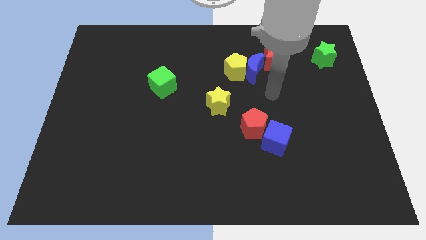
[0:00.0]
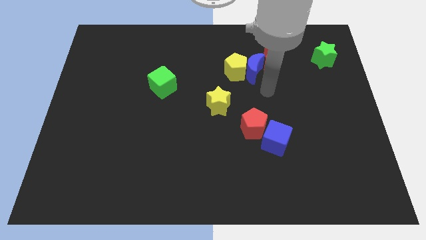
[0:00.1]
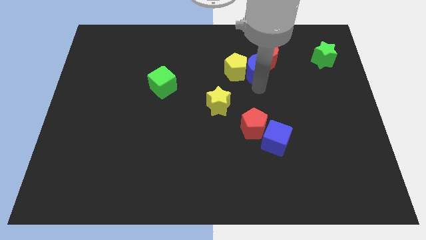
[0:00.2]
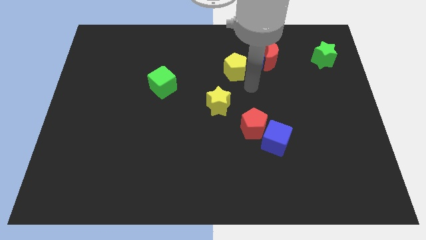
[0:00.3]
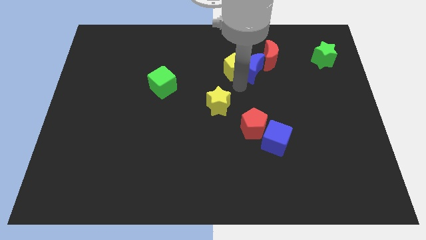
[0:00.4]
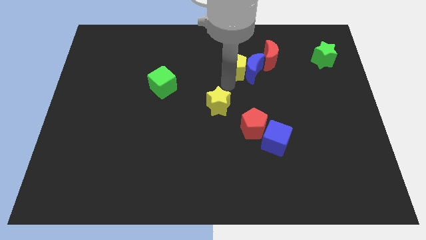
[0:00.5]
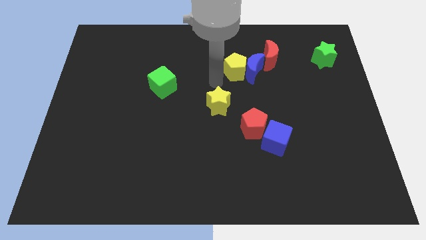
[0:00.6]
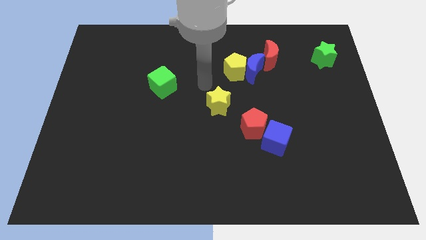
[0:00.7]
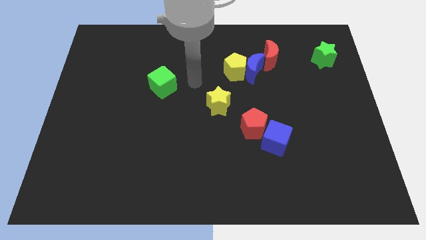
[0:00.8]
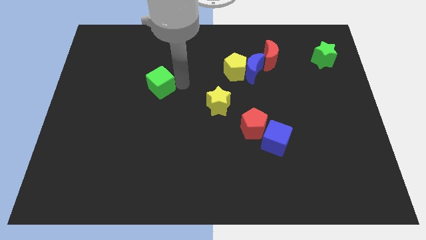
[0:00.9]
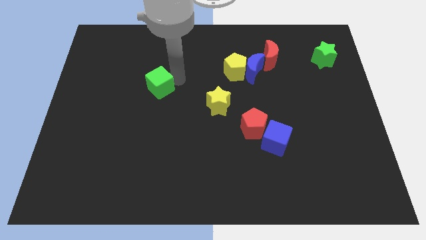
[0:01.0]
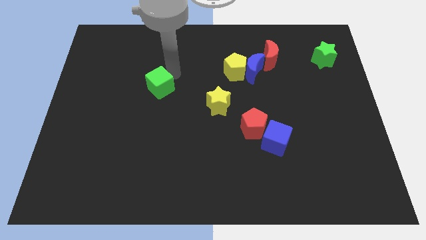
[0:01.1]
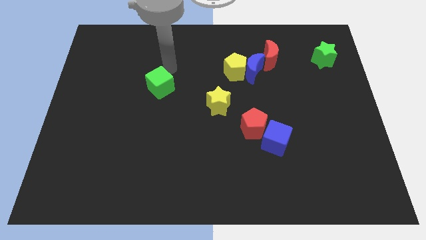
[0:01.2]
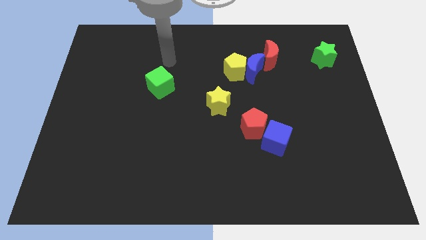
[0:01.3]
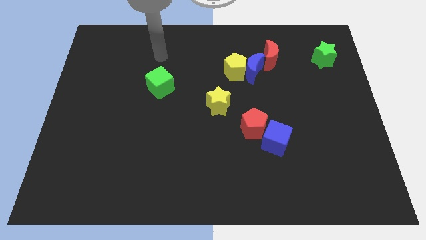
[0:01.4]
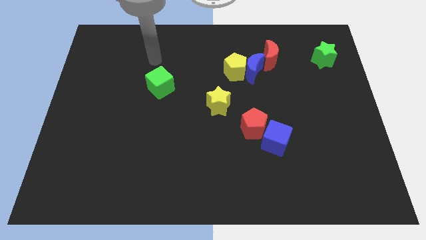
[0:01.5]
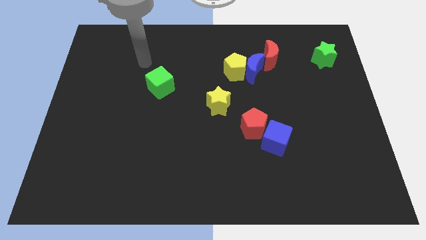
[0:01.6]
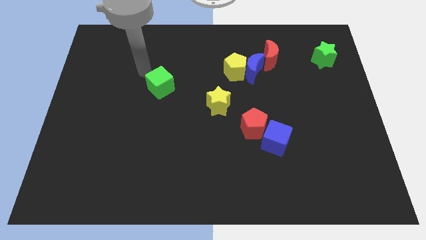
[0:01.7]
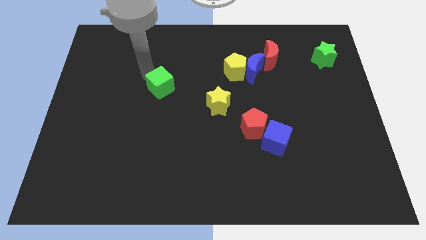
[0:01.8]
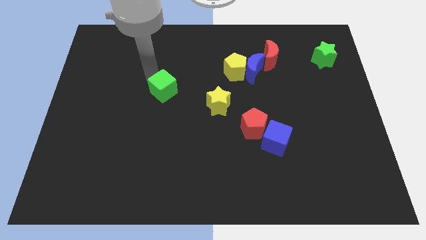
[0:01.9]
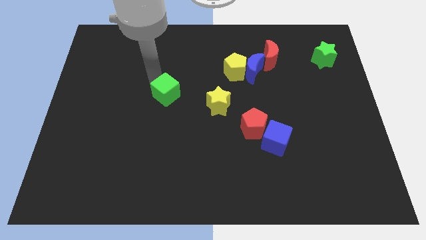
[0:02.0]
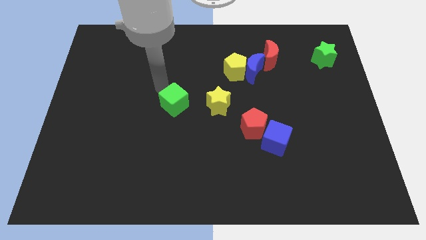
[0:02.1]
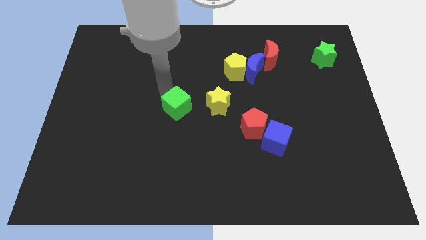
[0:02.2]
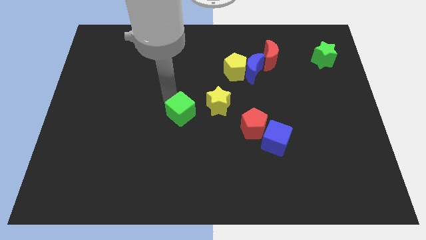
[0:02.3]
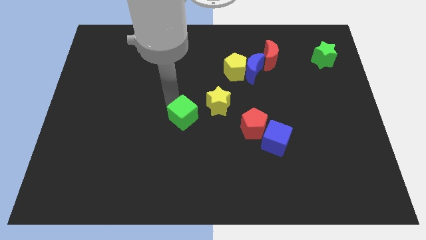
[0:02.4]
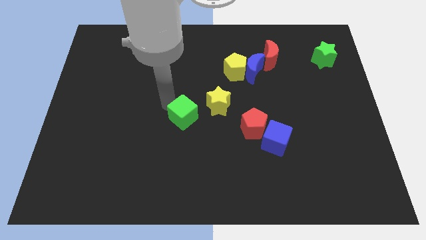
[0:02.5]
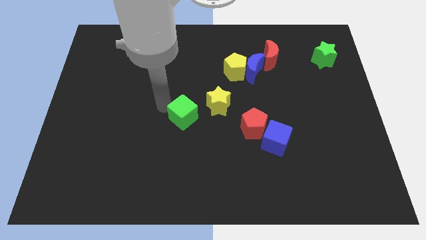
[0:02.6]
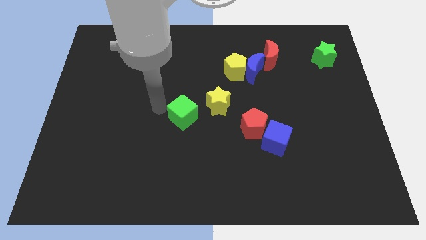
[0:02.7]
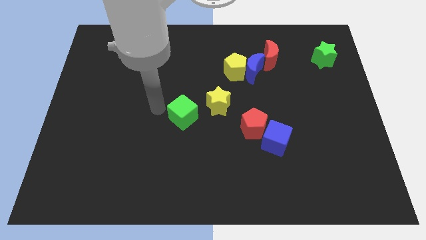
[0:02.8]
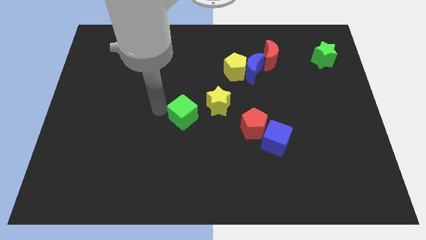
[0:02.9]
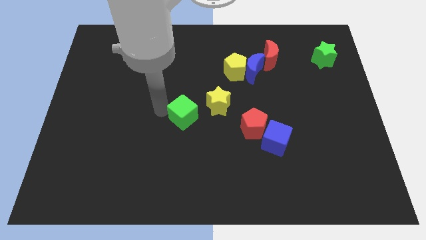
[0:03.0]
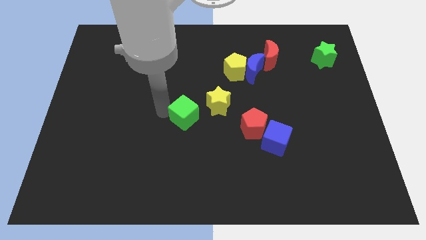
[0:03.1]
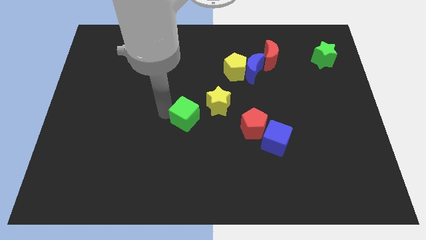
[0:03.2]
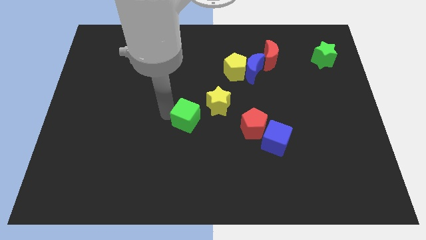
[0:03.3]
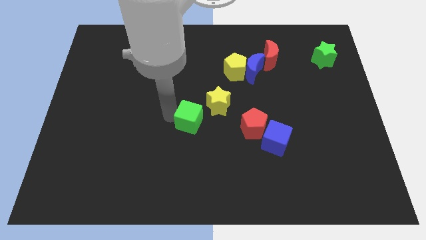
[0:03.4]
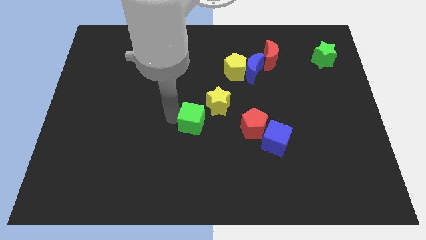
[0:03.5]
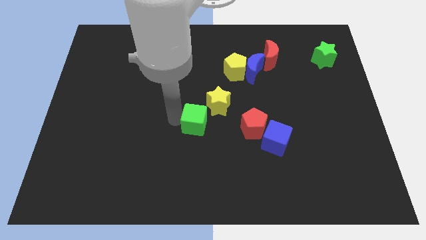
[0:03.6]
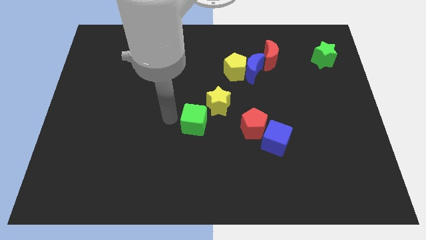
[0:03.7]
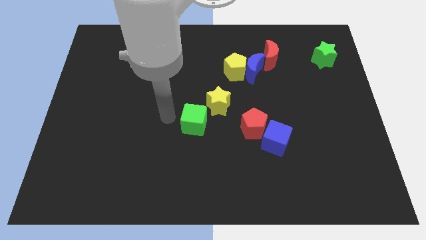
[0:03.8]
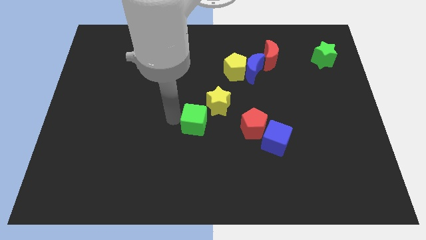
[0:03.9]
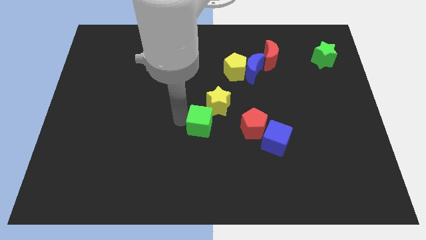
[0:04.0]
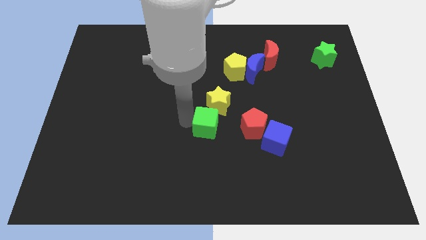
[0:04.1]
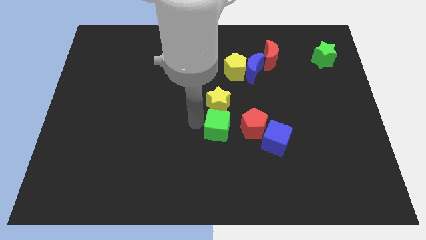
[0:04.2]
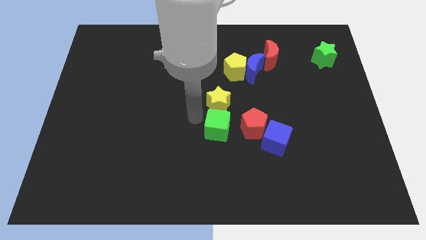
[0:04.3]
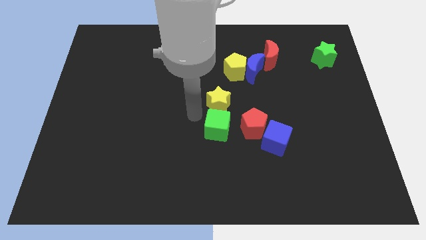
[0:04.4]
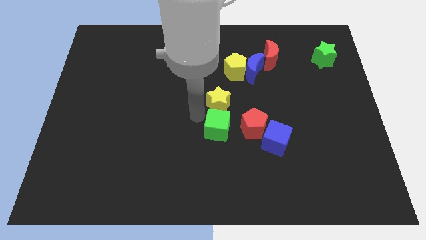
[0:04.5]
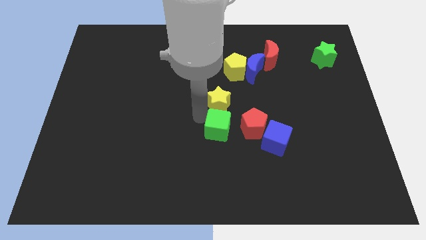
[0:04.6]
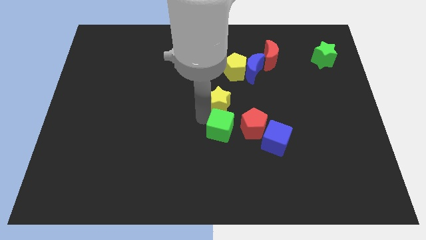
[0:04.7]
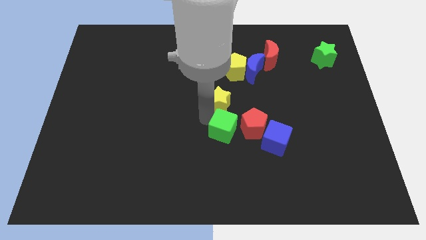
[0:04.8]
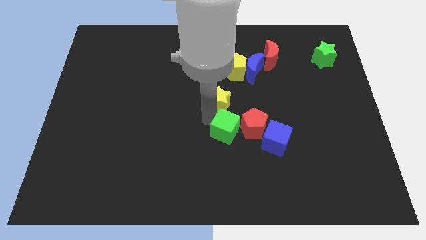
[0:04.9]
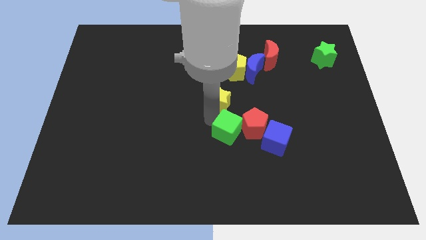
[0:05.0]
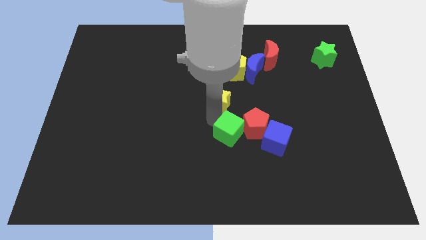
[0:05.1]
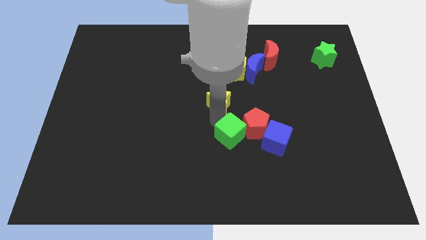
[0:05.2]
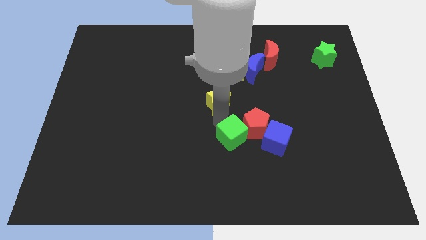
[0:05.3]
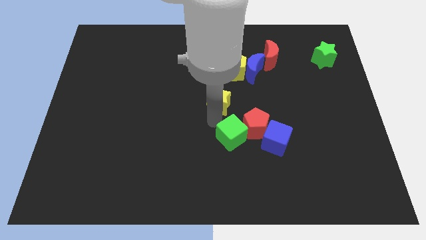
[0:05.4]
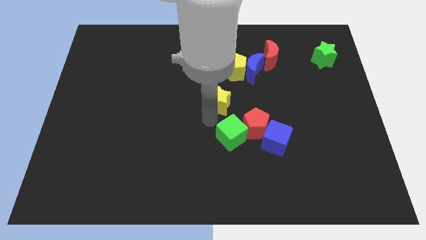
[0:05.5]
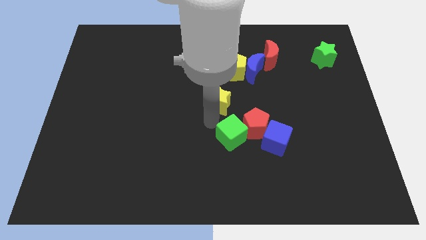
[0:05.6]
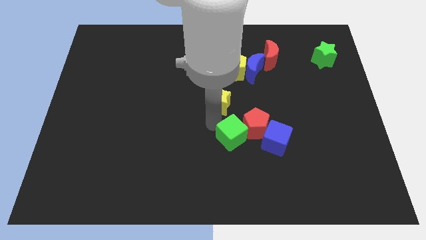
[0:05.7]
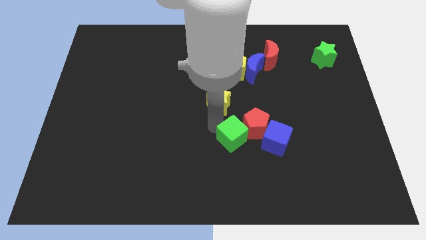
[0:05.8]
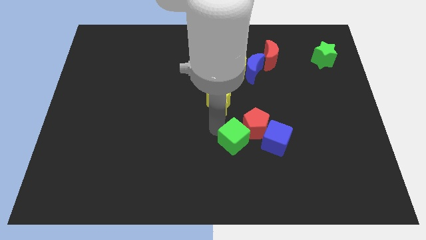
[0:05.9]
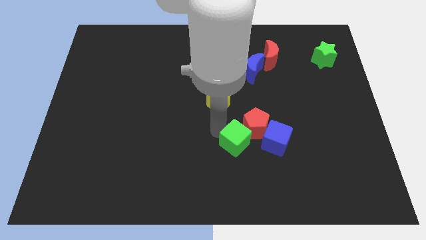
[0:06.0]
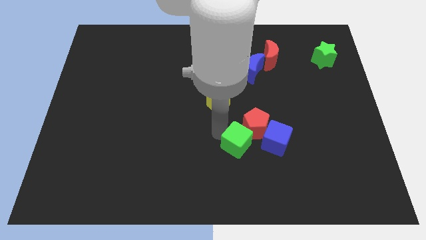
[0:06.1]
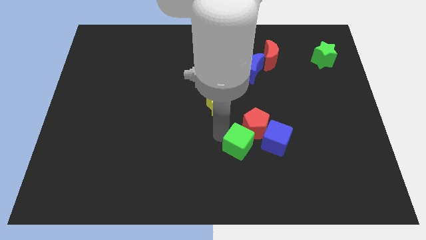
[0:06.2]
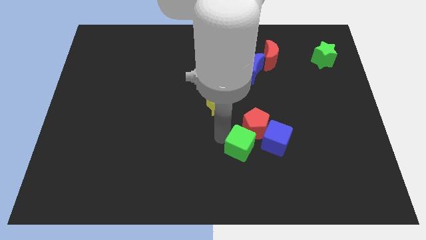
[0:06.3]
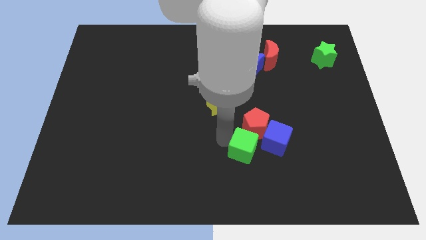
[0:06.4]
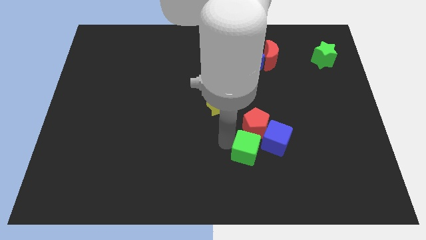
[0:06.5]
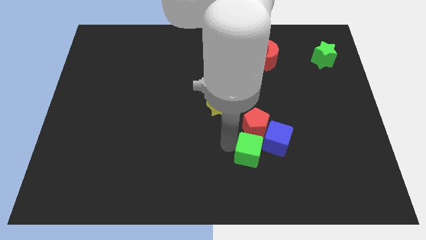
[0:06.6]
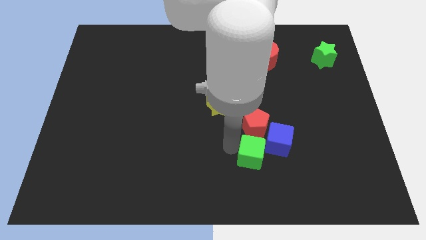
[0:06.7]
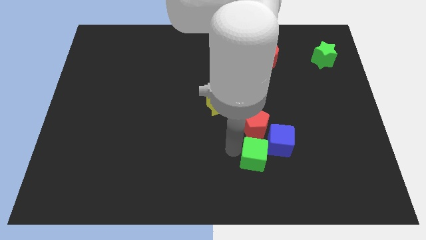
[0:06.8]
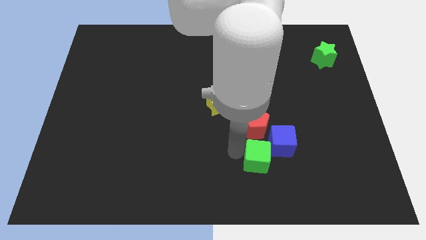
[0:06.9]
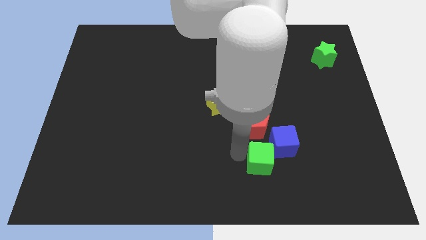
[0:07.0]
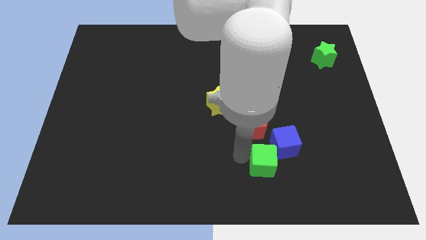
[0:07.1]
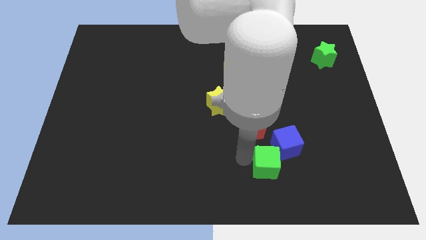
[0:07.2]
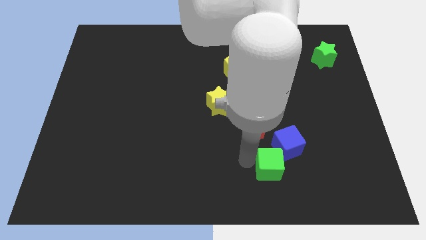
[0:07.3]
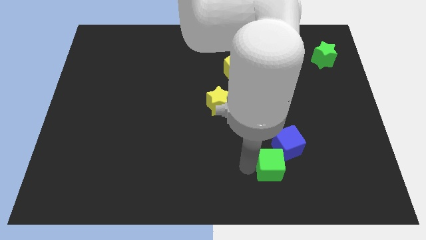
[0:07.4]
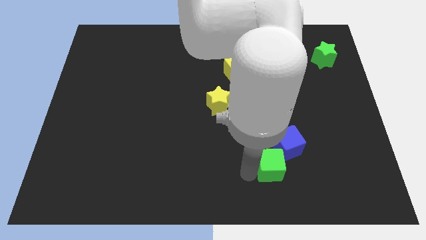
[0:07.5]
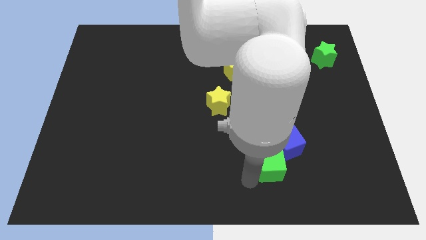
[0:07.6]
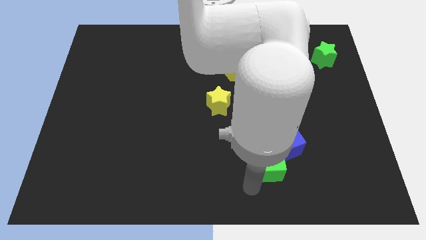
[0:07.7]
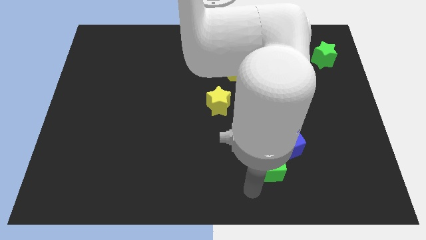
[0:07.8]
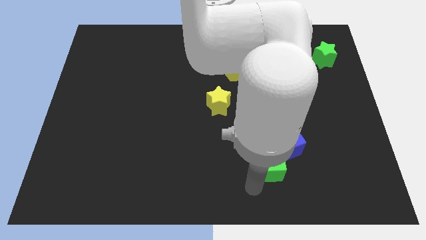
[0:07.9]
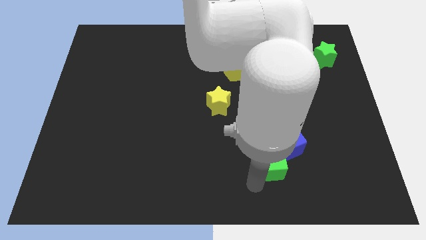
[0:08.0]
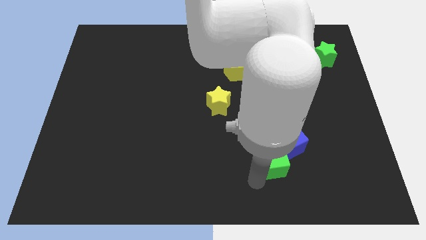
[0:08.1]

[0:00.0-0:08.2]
slide the green cube close to the blue cube
